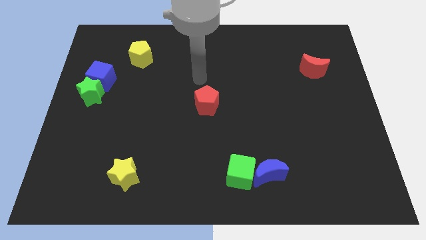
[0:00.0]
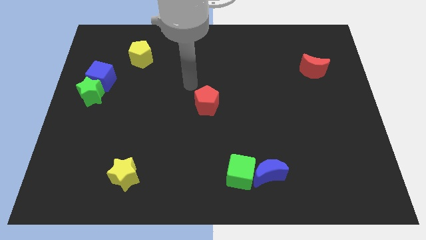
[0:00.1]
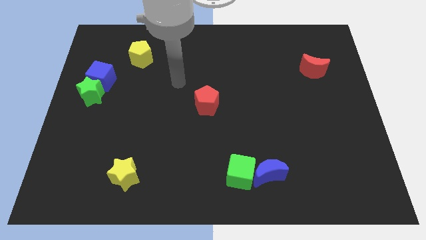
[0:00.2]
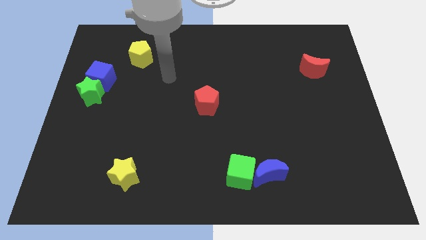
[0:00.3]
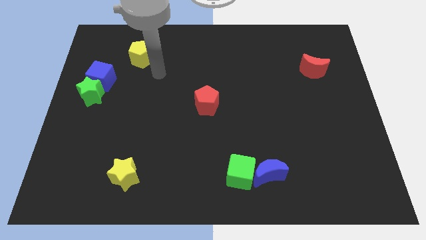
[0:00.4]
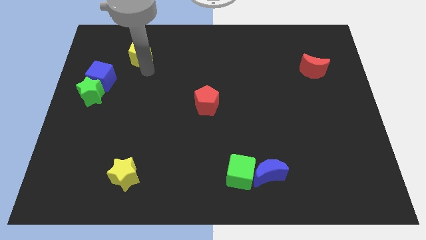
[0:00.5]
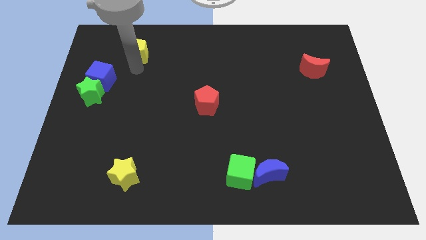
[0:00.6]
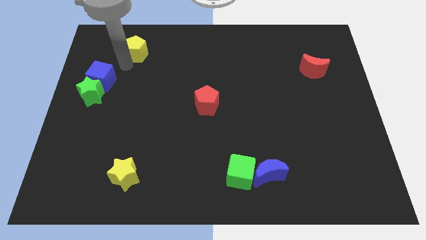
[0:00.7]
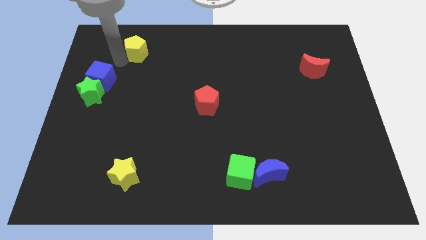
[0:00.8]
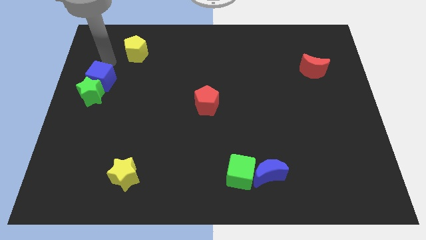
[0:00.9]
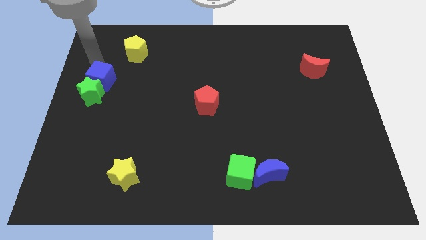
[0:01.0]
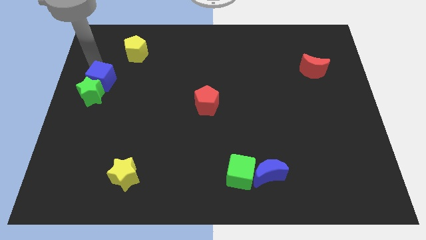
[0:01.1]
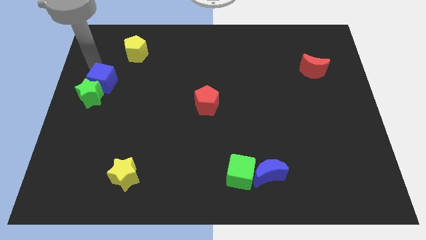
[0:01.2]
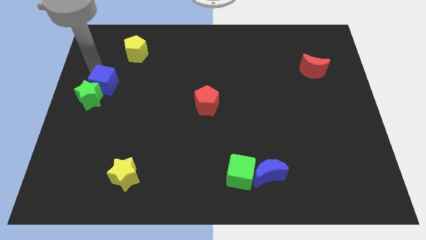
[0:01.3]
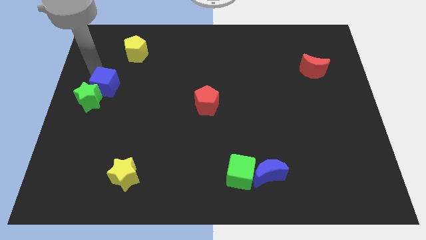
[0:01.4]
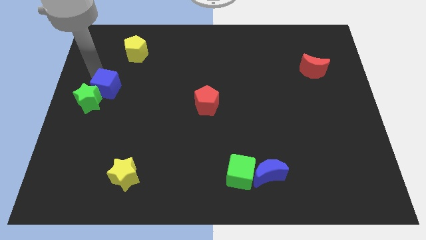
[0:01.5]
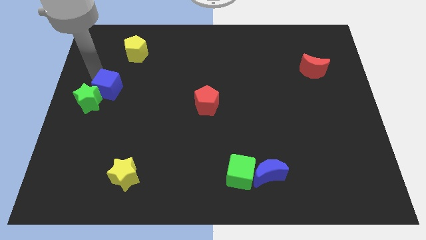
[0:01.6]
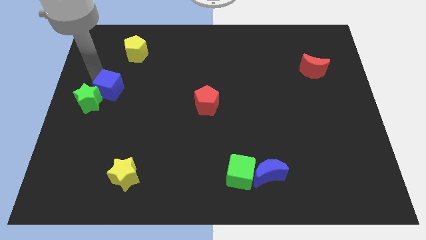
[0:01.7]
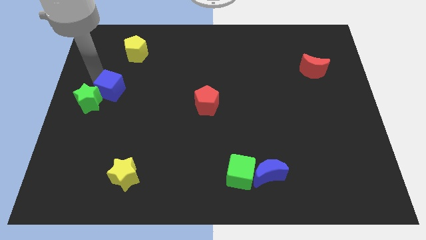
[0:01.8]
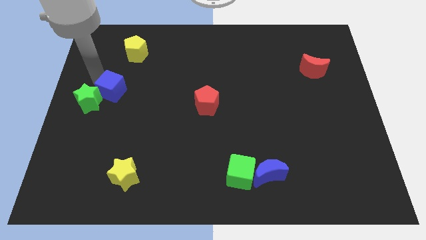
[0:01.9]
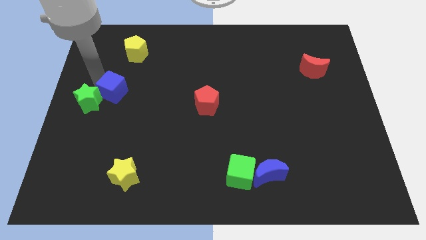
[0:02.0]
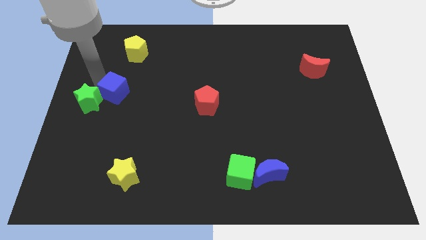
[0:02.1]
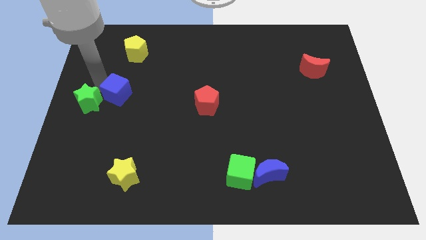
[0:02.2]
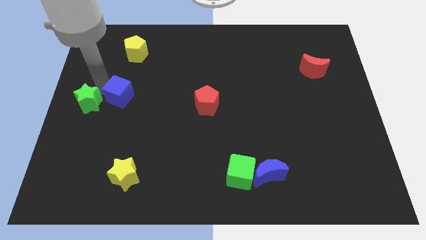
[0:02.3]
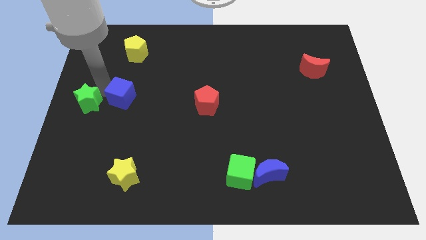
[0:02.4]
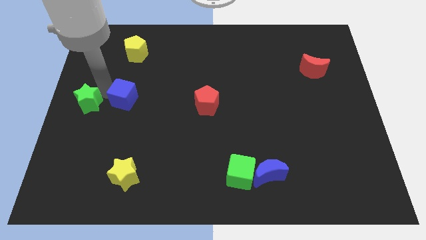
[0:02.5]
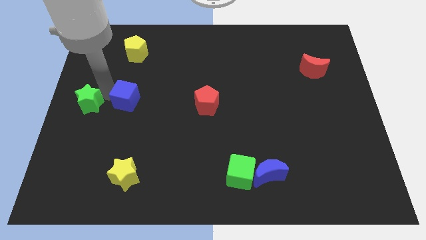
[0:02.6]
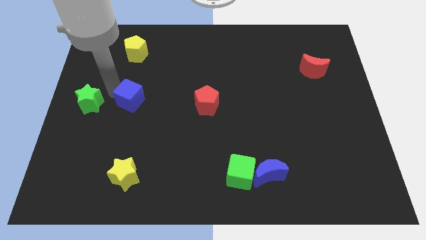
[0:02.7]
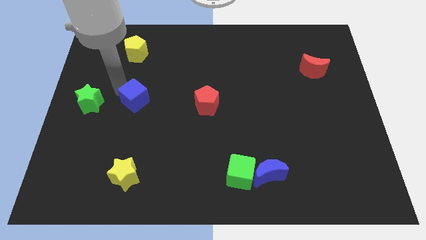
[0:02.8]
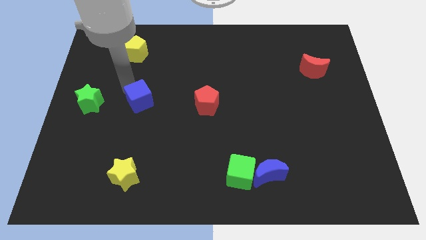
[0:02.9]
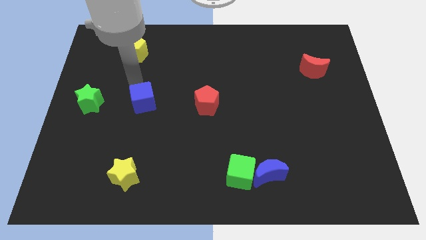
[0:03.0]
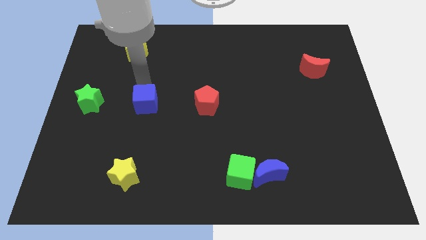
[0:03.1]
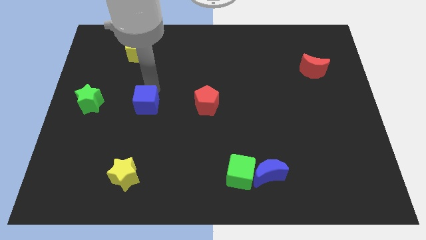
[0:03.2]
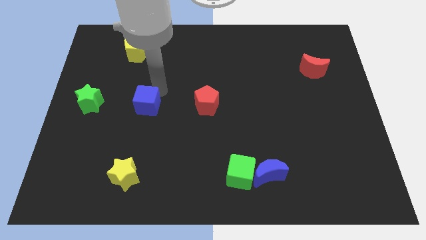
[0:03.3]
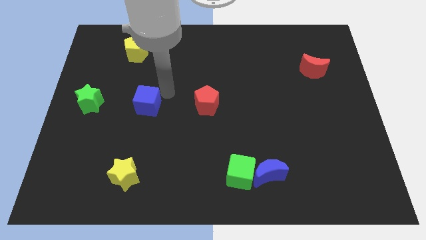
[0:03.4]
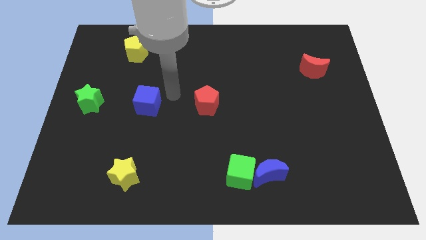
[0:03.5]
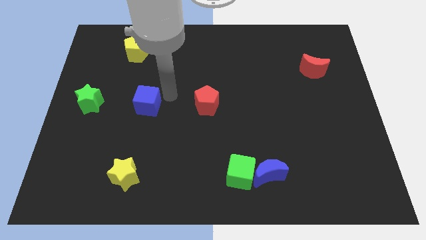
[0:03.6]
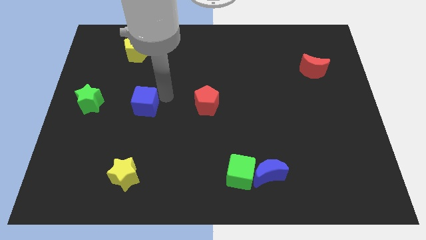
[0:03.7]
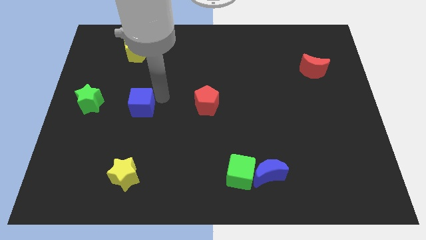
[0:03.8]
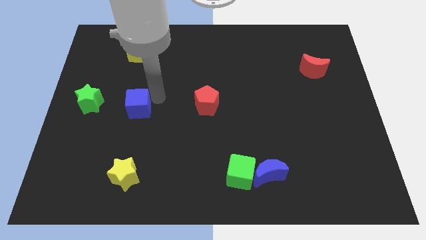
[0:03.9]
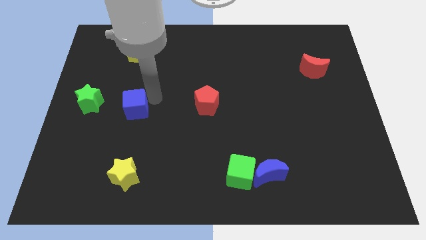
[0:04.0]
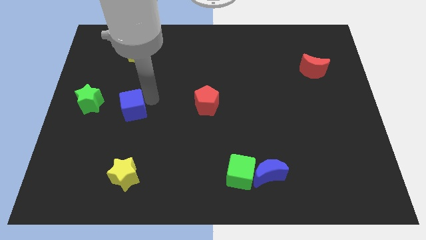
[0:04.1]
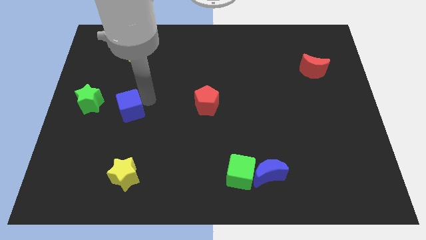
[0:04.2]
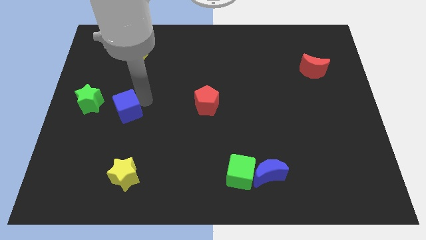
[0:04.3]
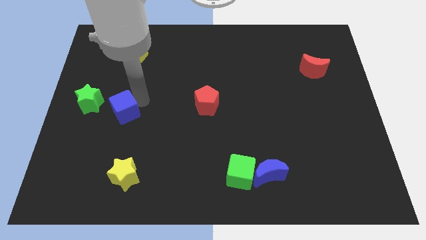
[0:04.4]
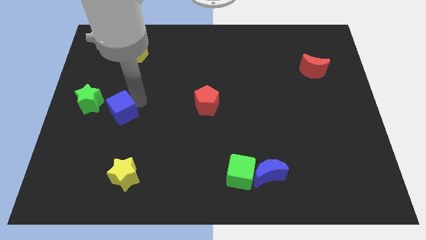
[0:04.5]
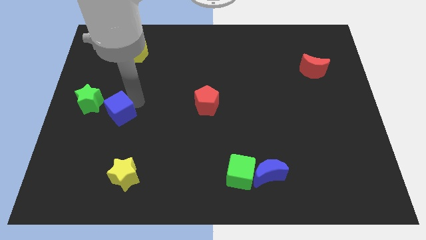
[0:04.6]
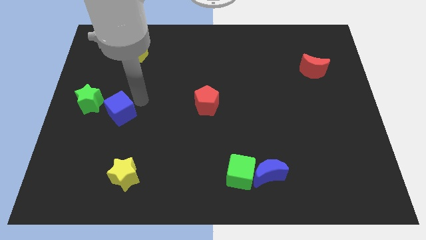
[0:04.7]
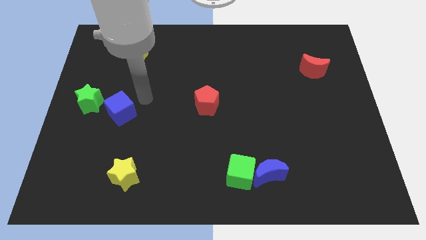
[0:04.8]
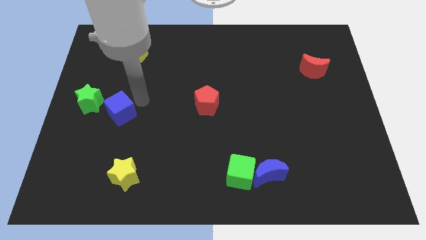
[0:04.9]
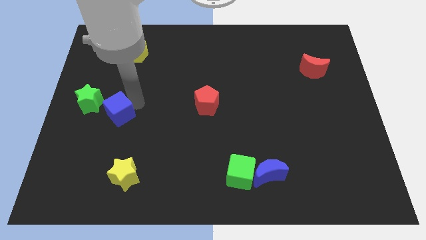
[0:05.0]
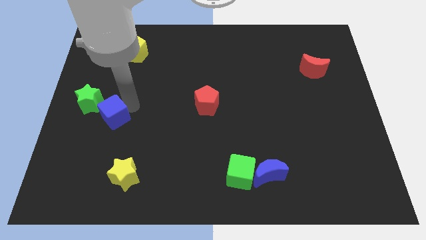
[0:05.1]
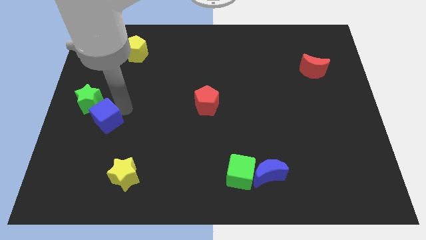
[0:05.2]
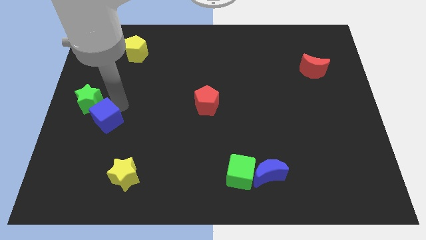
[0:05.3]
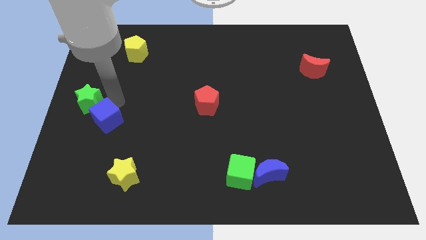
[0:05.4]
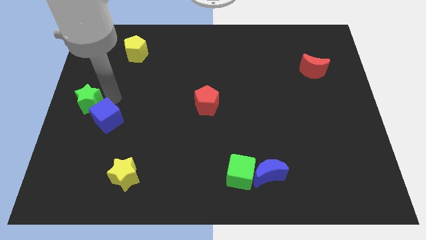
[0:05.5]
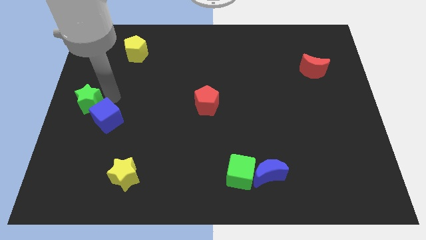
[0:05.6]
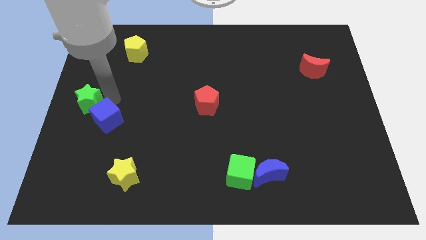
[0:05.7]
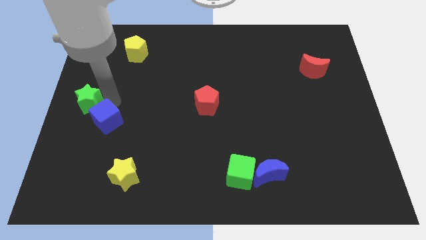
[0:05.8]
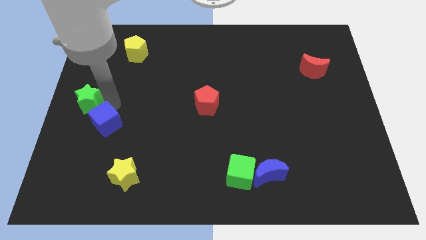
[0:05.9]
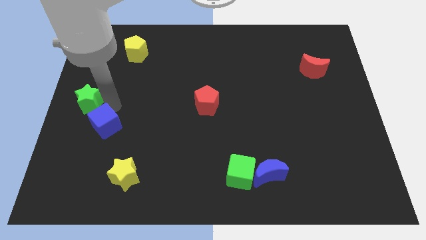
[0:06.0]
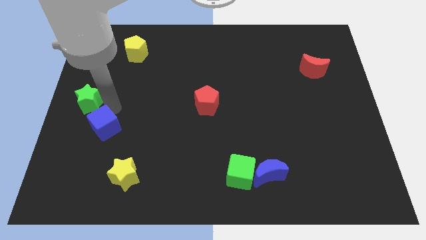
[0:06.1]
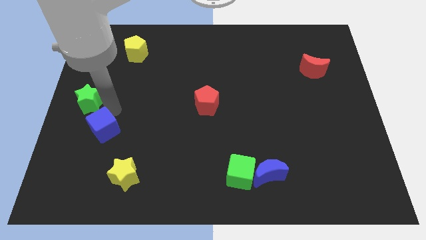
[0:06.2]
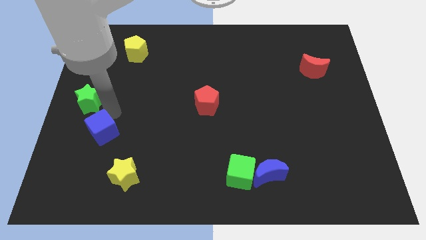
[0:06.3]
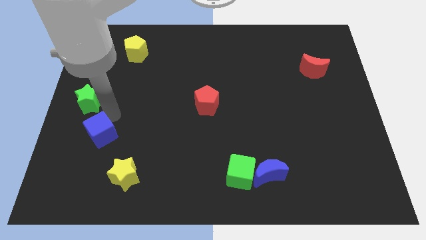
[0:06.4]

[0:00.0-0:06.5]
move the blue cube diagonally up and to the left of the yellow star

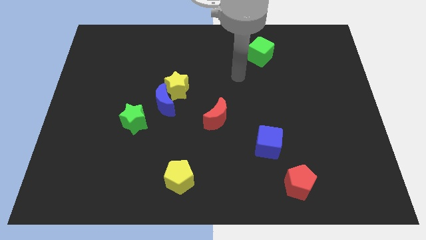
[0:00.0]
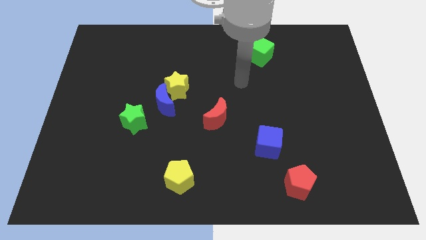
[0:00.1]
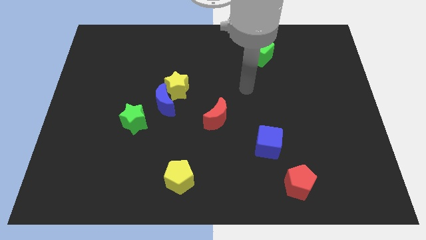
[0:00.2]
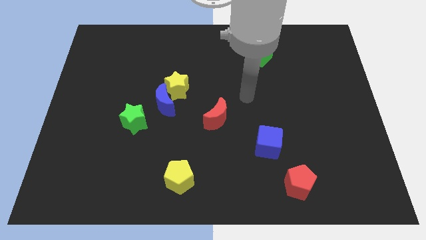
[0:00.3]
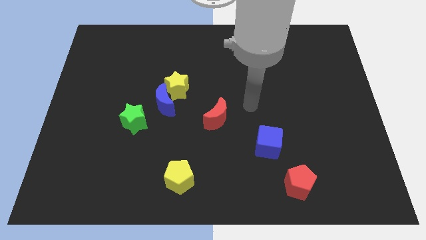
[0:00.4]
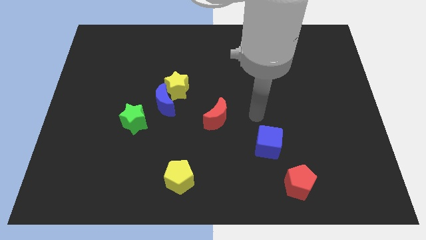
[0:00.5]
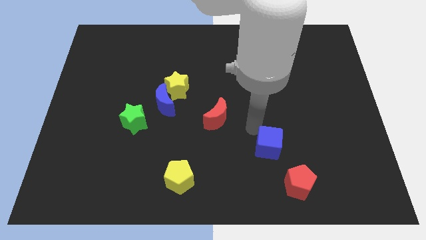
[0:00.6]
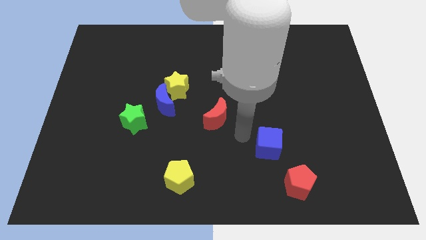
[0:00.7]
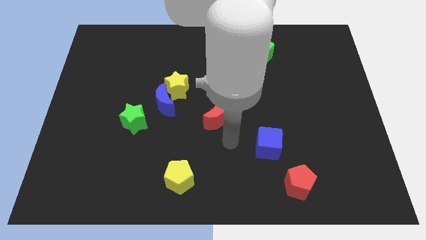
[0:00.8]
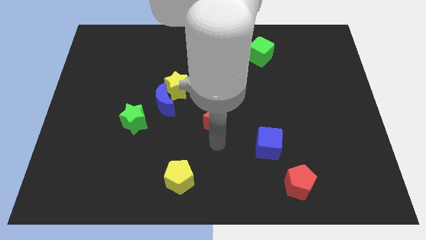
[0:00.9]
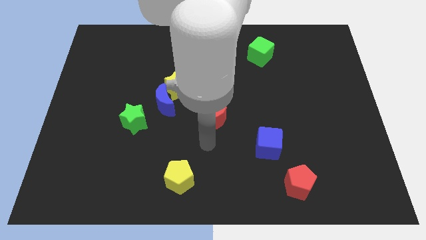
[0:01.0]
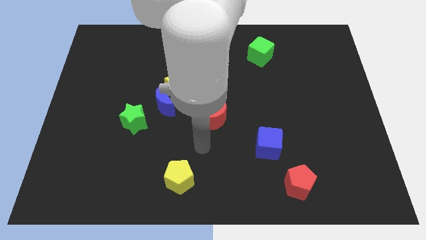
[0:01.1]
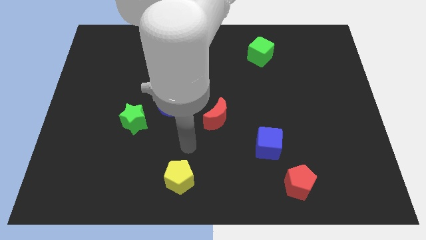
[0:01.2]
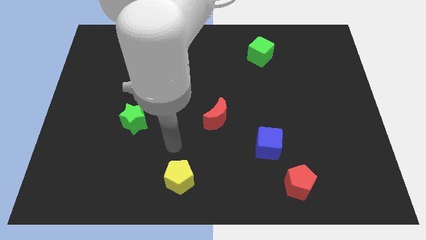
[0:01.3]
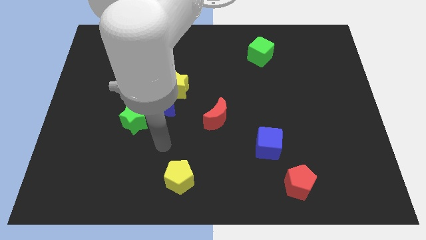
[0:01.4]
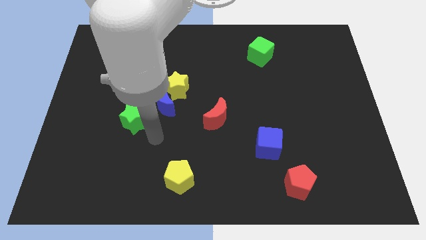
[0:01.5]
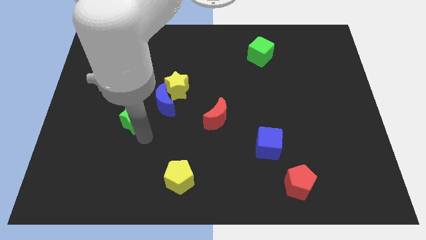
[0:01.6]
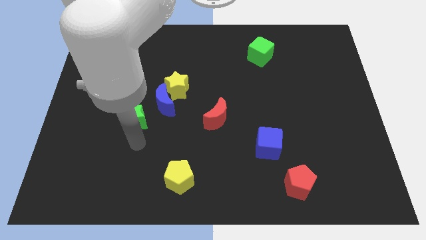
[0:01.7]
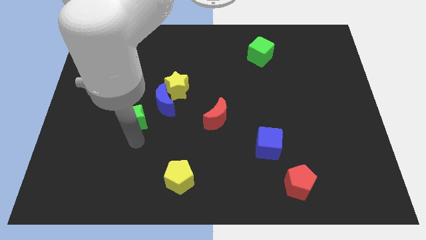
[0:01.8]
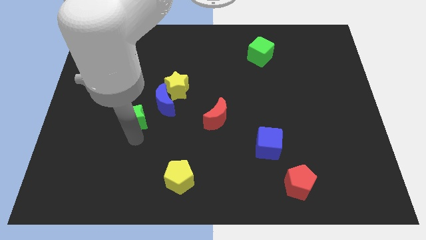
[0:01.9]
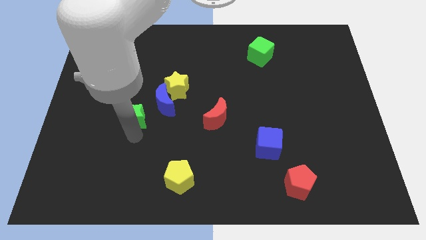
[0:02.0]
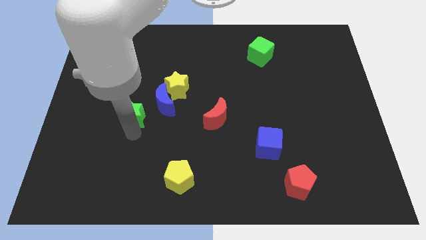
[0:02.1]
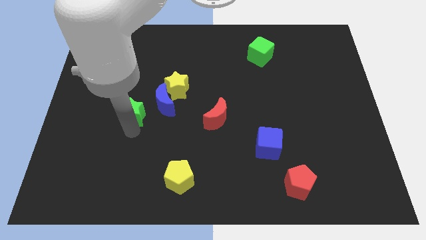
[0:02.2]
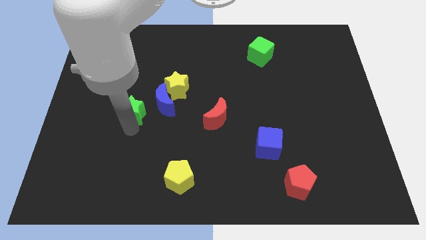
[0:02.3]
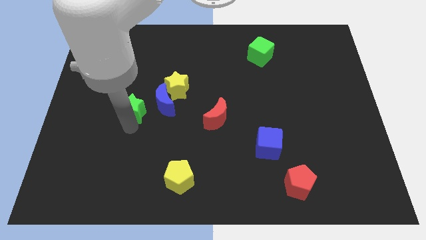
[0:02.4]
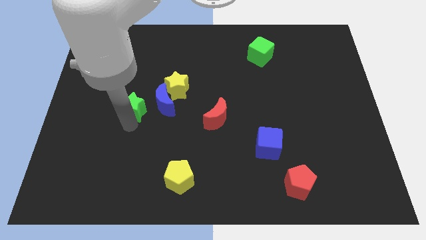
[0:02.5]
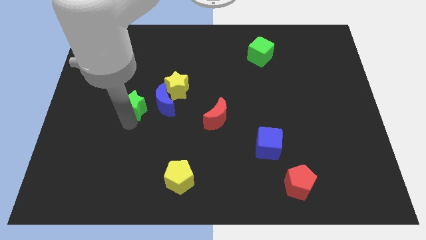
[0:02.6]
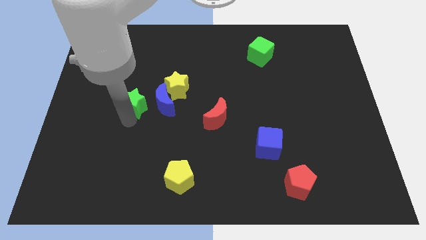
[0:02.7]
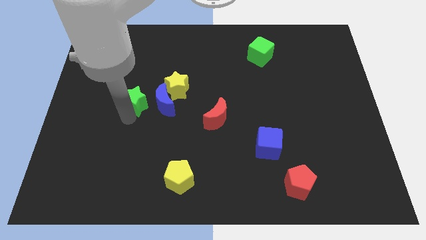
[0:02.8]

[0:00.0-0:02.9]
push the green star to the left of the yellow star
